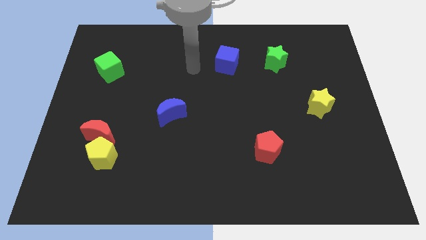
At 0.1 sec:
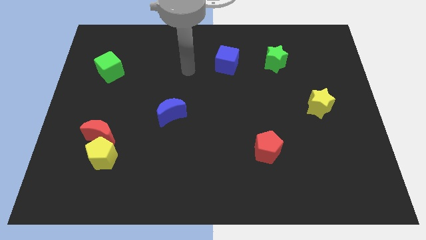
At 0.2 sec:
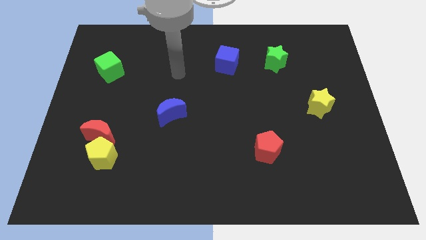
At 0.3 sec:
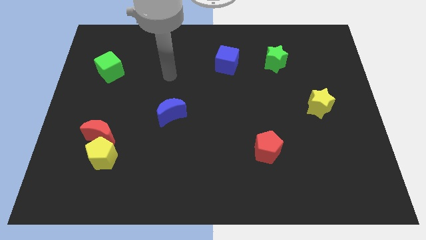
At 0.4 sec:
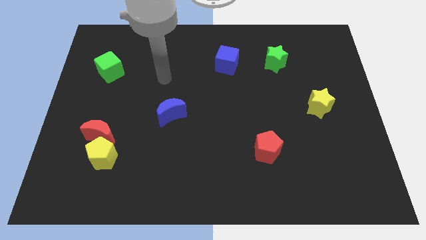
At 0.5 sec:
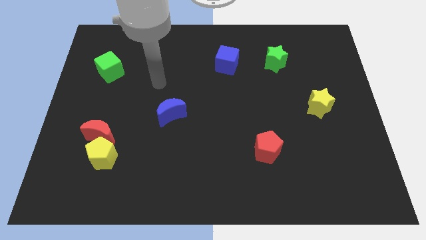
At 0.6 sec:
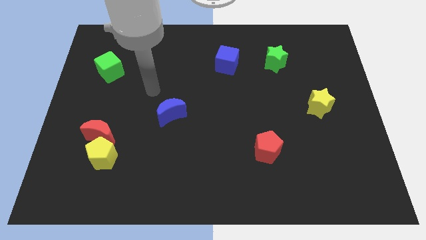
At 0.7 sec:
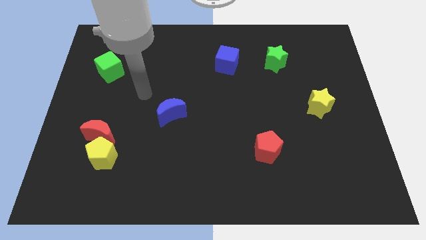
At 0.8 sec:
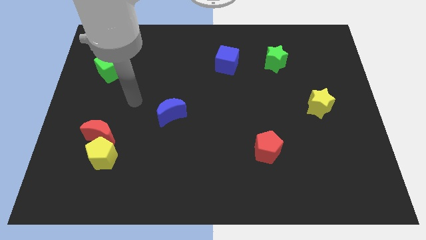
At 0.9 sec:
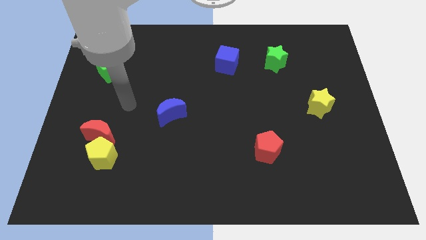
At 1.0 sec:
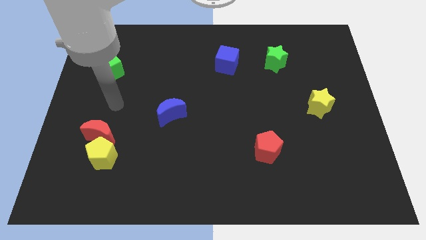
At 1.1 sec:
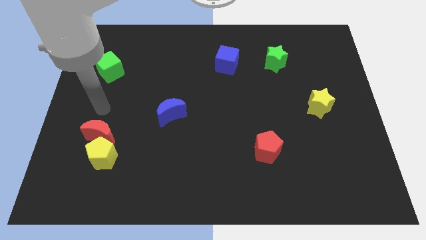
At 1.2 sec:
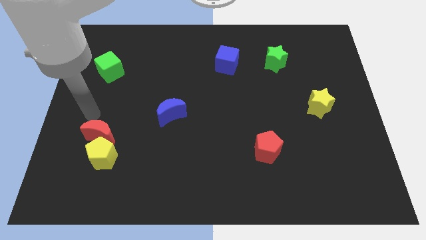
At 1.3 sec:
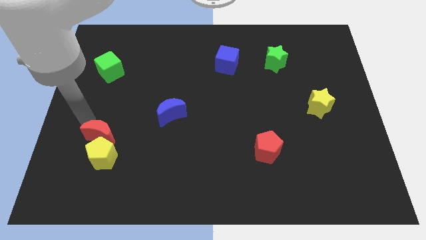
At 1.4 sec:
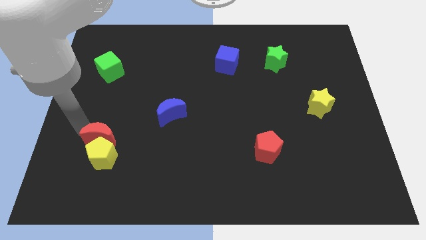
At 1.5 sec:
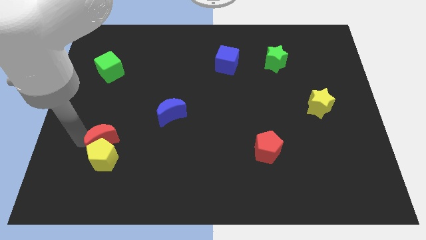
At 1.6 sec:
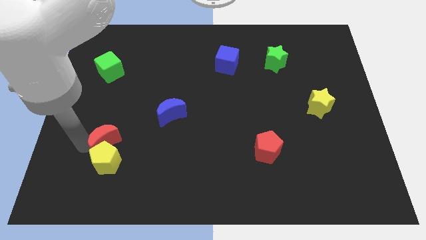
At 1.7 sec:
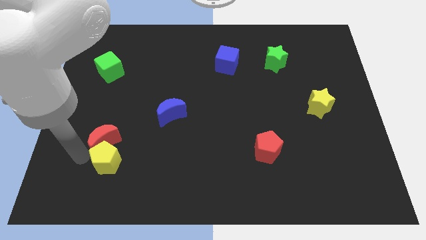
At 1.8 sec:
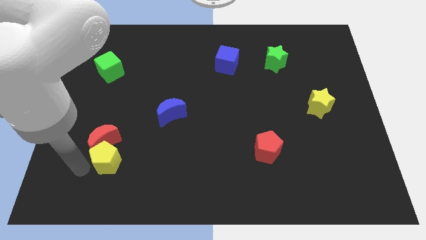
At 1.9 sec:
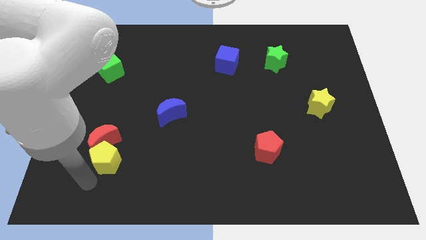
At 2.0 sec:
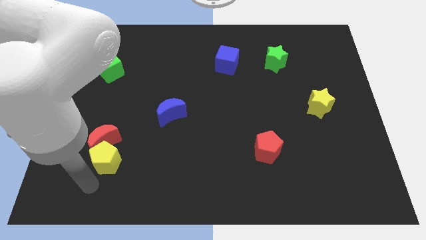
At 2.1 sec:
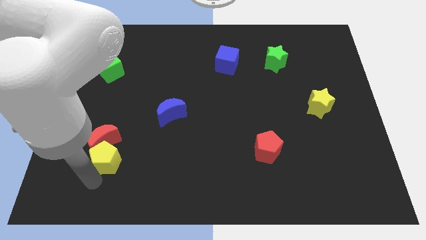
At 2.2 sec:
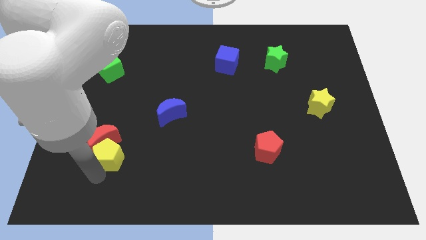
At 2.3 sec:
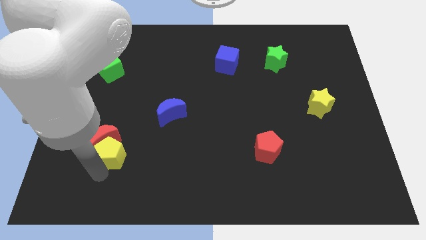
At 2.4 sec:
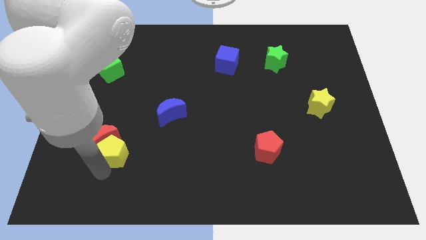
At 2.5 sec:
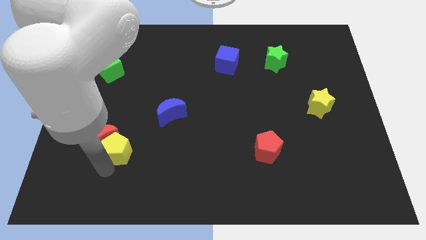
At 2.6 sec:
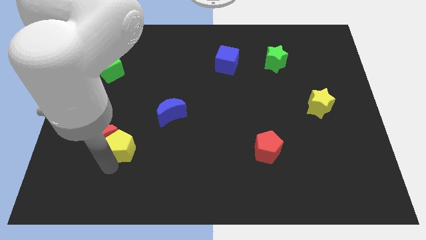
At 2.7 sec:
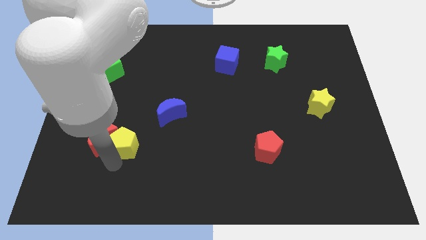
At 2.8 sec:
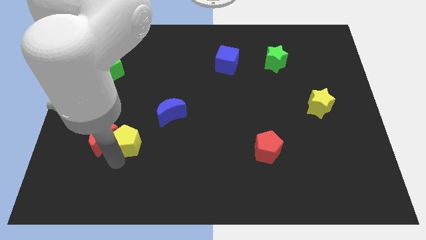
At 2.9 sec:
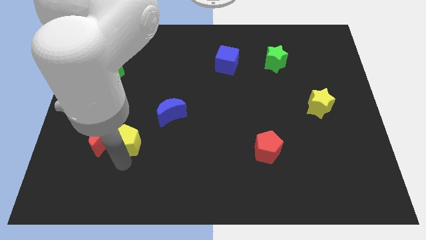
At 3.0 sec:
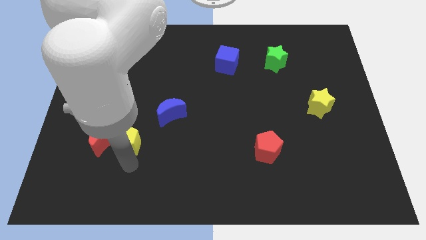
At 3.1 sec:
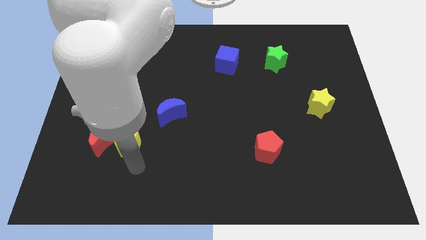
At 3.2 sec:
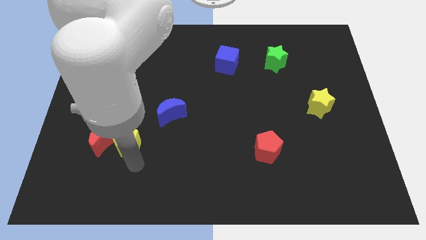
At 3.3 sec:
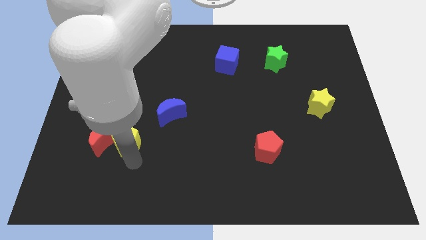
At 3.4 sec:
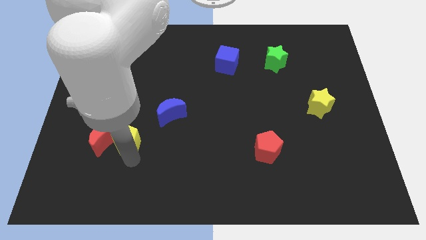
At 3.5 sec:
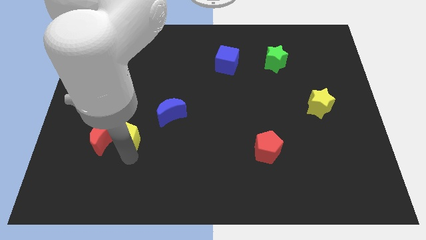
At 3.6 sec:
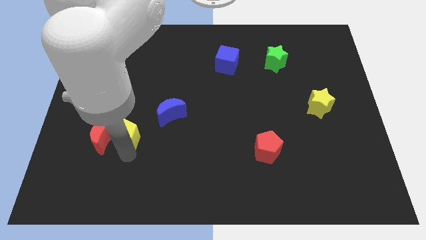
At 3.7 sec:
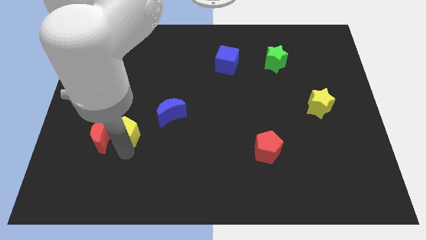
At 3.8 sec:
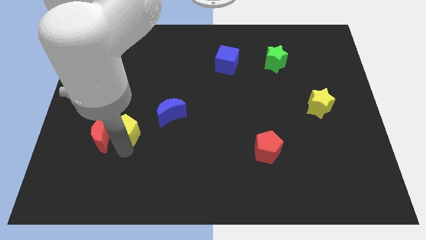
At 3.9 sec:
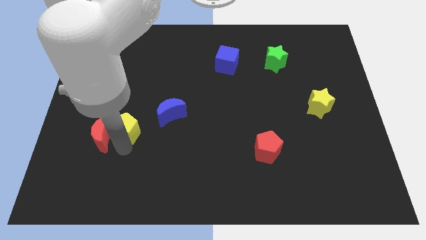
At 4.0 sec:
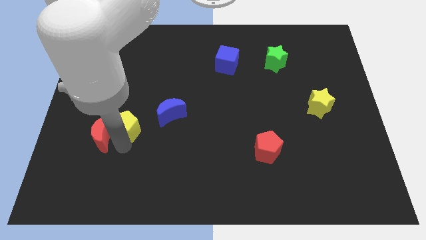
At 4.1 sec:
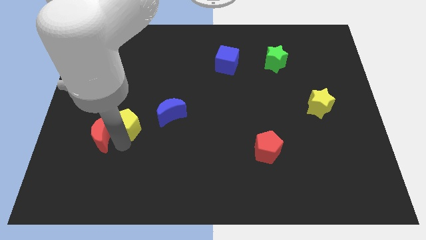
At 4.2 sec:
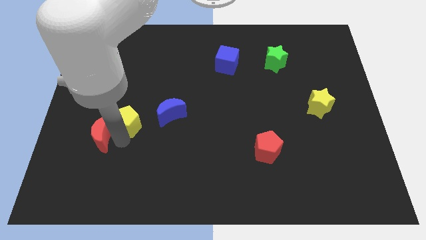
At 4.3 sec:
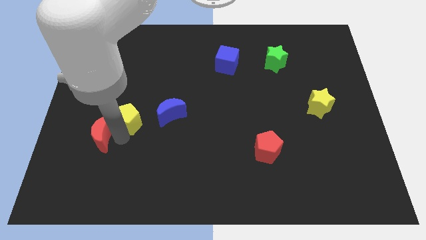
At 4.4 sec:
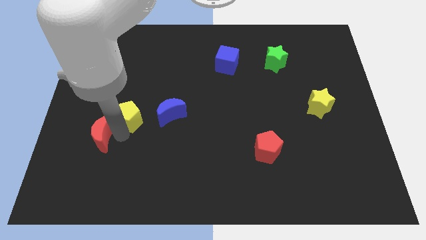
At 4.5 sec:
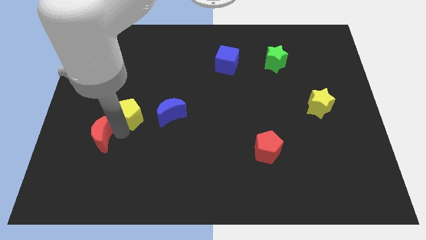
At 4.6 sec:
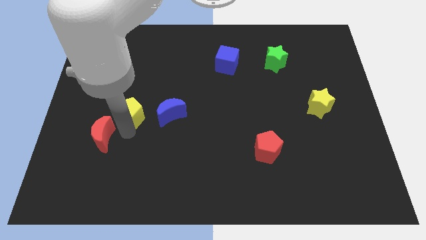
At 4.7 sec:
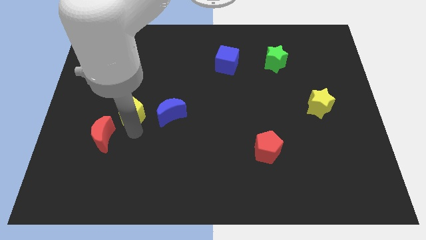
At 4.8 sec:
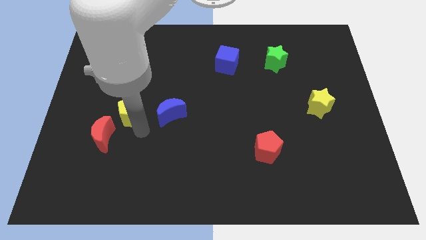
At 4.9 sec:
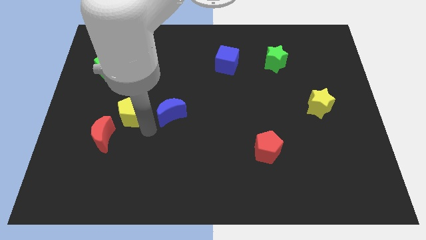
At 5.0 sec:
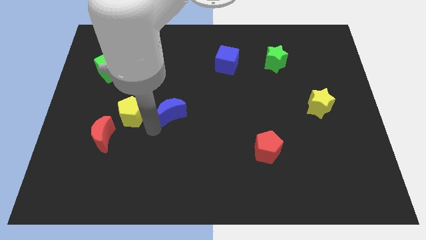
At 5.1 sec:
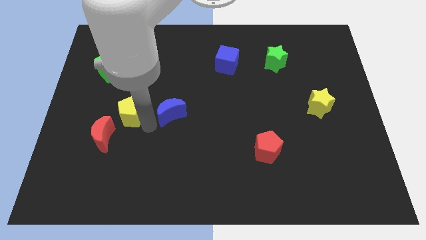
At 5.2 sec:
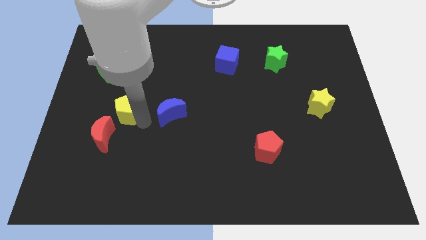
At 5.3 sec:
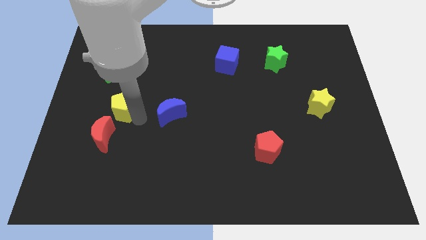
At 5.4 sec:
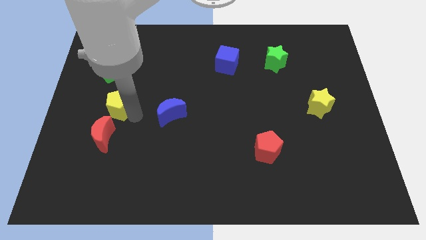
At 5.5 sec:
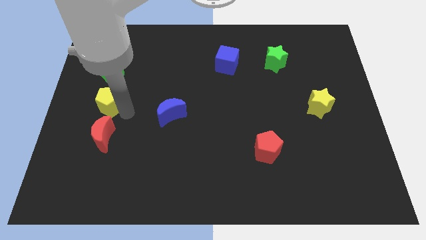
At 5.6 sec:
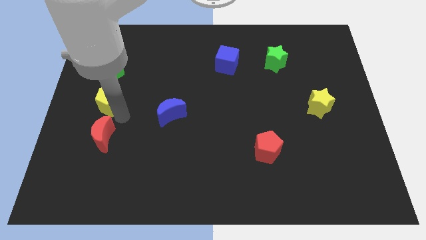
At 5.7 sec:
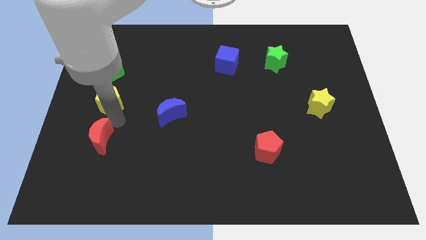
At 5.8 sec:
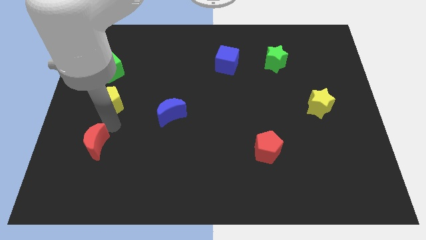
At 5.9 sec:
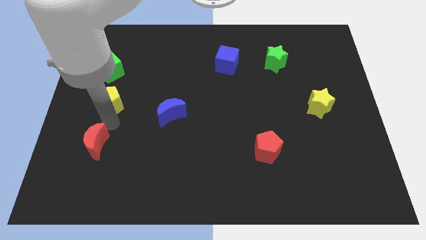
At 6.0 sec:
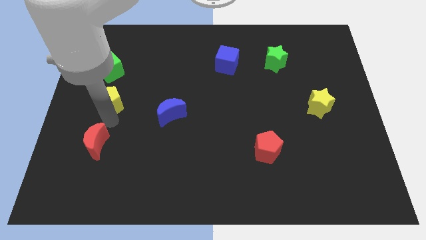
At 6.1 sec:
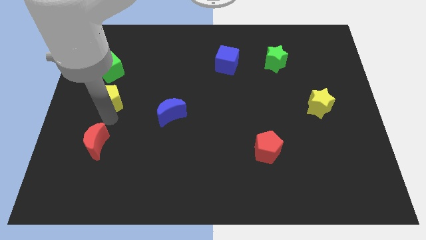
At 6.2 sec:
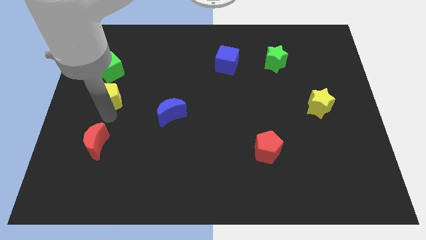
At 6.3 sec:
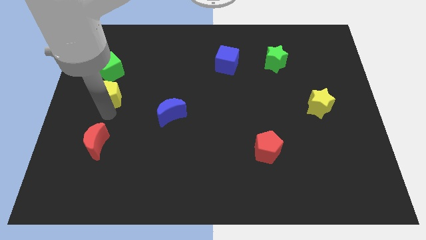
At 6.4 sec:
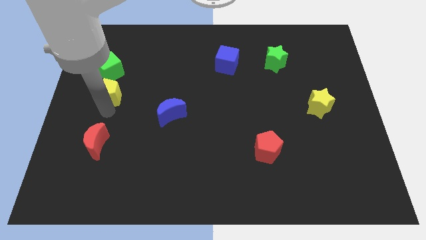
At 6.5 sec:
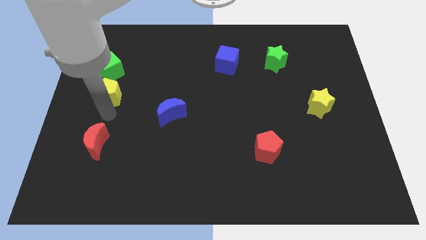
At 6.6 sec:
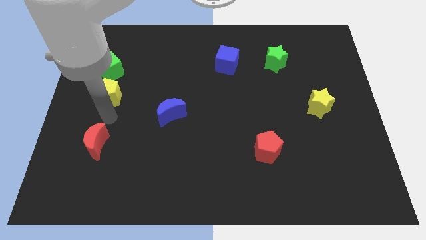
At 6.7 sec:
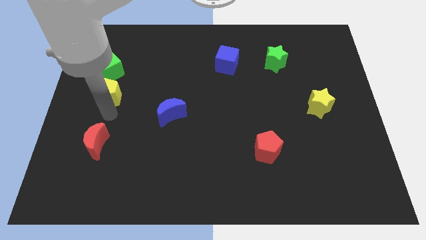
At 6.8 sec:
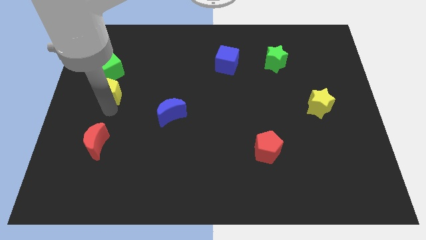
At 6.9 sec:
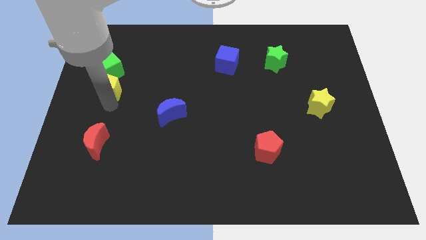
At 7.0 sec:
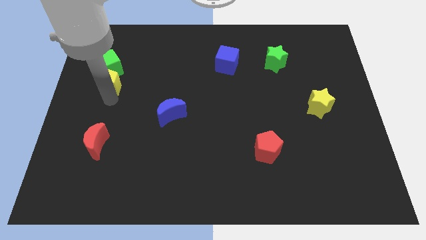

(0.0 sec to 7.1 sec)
put the yellow pentagon close to the green cube
